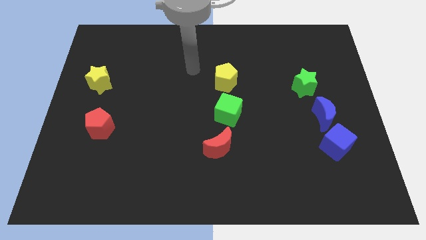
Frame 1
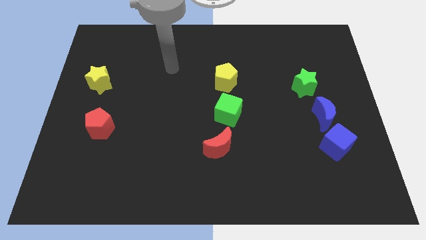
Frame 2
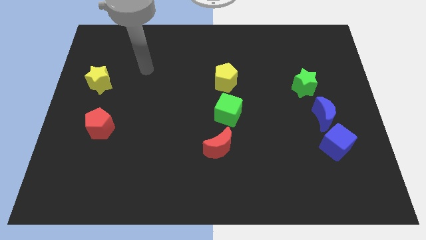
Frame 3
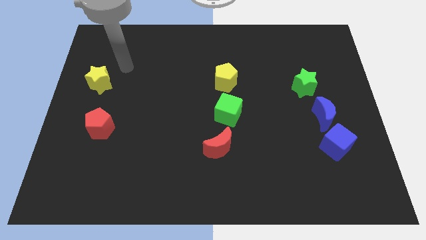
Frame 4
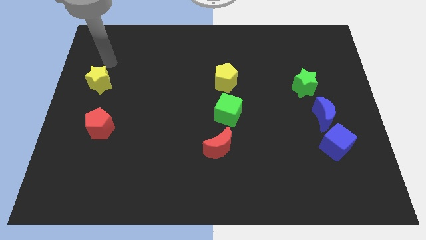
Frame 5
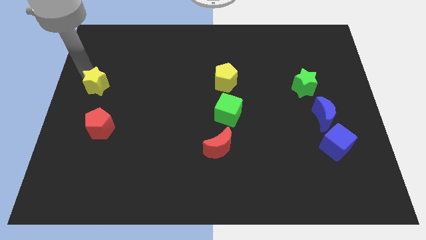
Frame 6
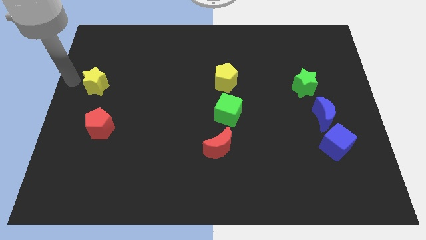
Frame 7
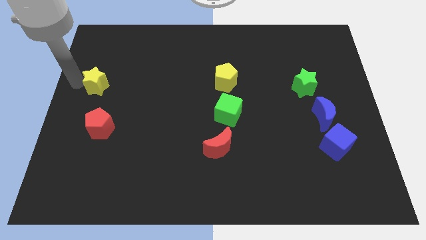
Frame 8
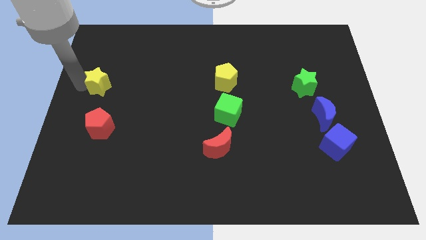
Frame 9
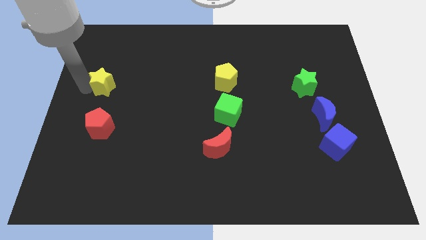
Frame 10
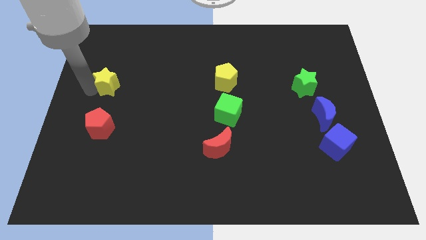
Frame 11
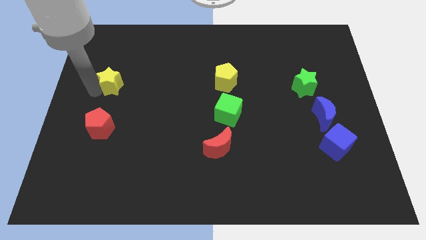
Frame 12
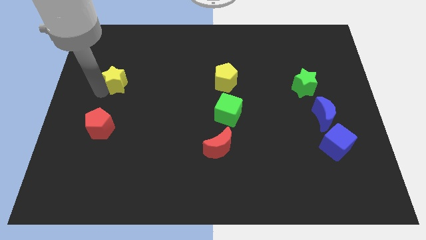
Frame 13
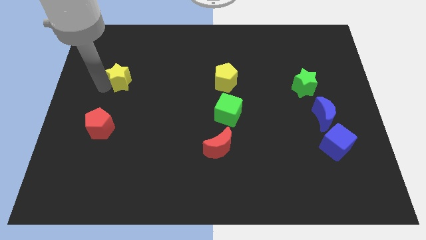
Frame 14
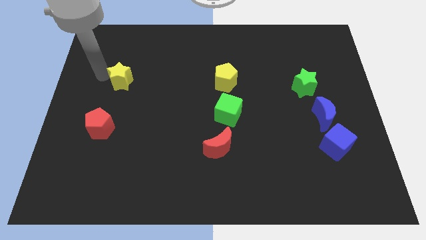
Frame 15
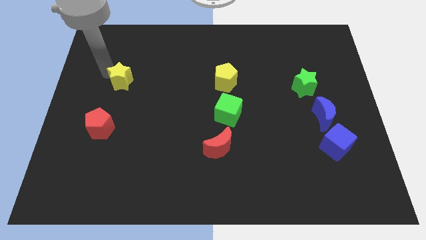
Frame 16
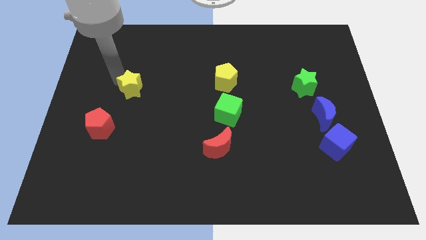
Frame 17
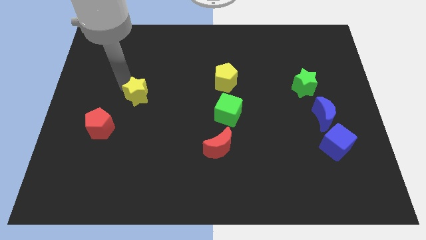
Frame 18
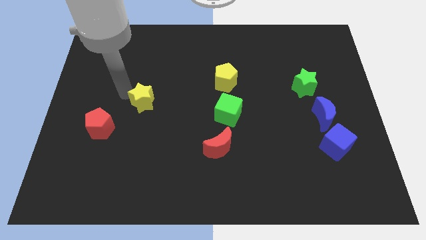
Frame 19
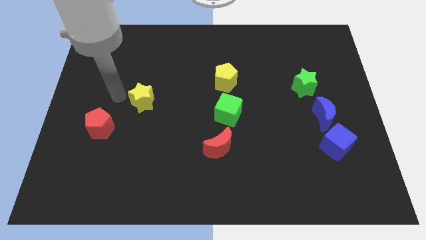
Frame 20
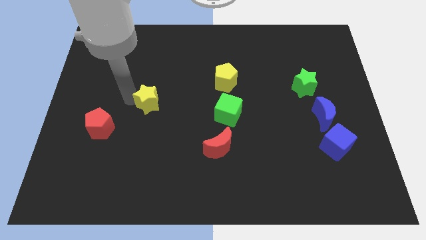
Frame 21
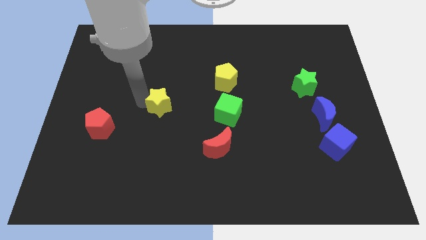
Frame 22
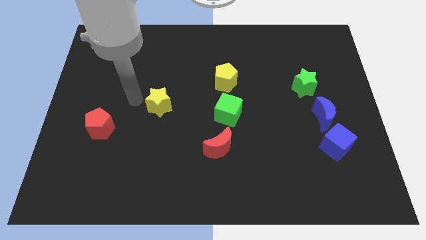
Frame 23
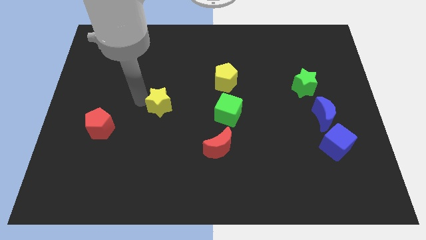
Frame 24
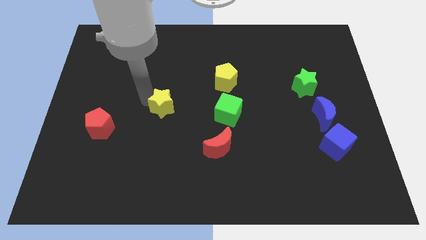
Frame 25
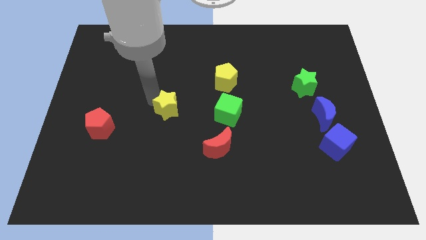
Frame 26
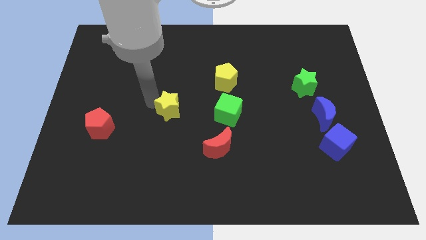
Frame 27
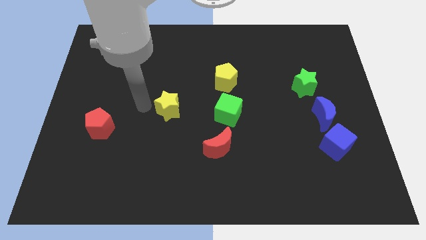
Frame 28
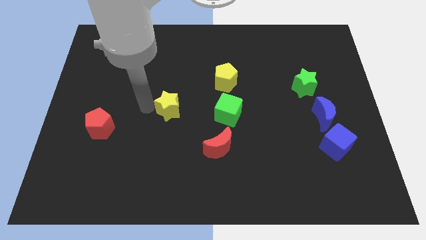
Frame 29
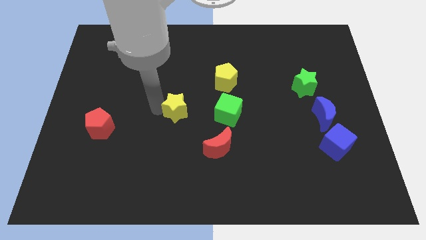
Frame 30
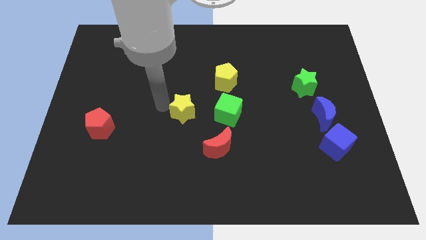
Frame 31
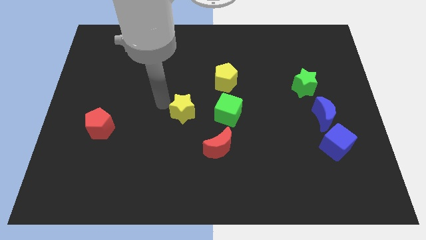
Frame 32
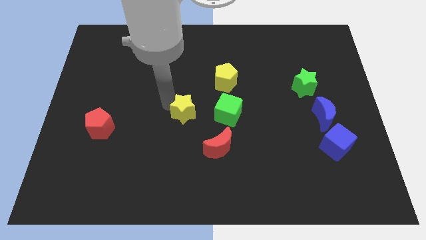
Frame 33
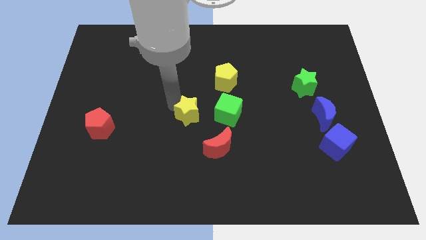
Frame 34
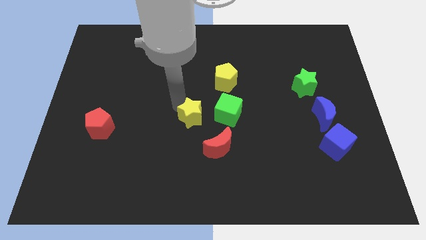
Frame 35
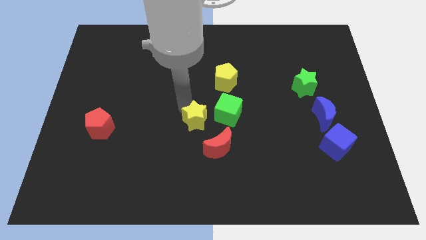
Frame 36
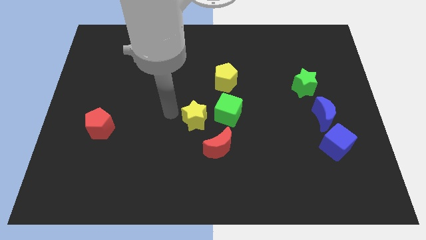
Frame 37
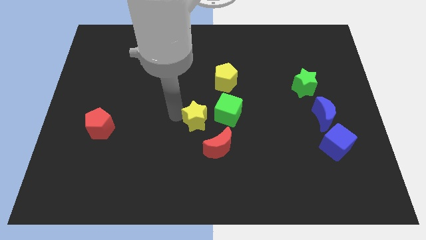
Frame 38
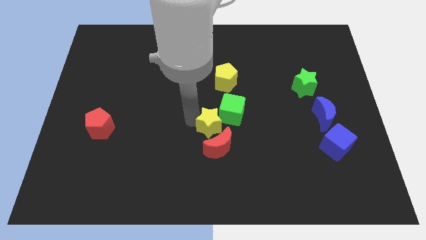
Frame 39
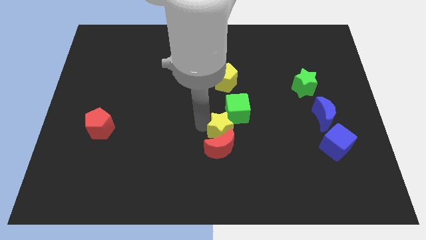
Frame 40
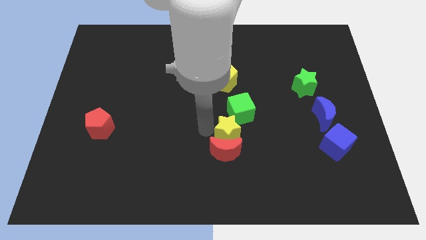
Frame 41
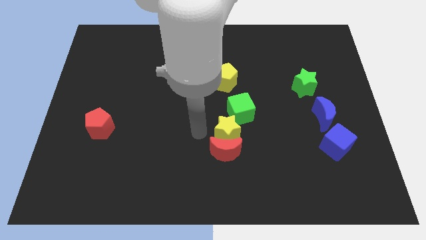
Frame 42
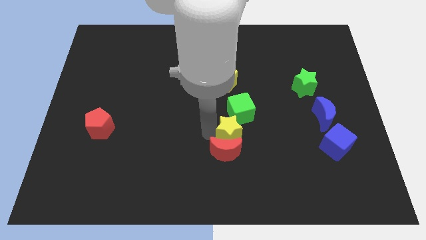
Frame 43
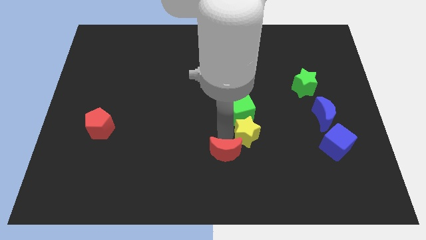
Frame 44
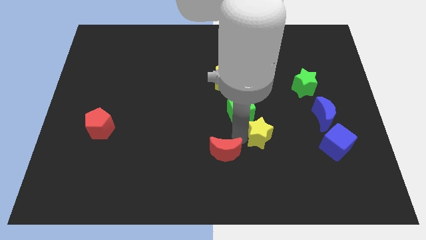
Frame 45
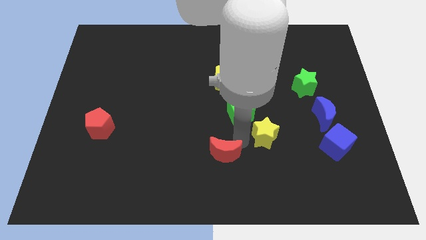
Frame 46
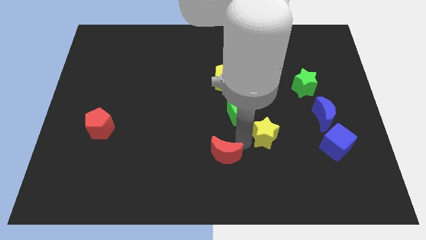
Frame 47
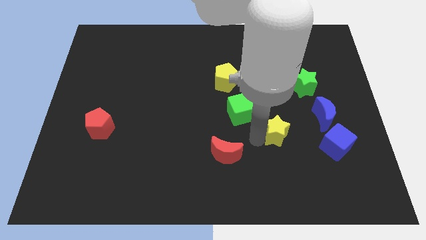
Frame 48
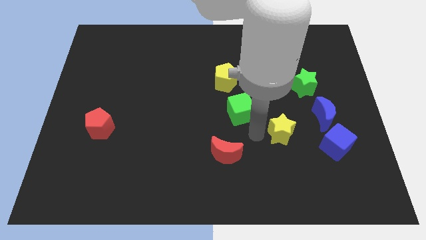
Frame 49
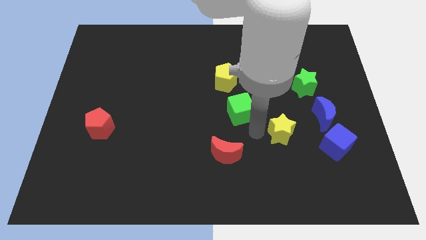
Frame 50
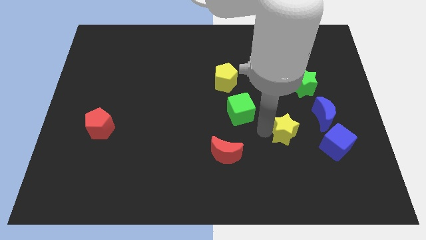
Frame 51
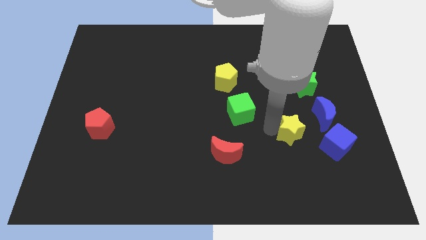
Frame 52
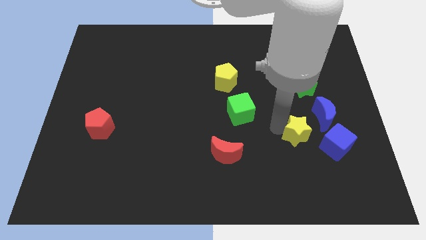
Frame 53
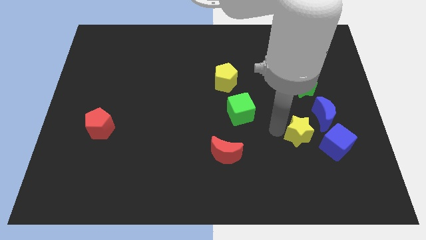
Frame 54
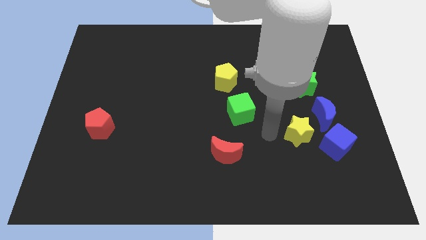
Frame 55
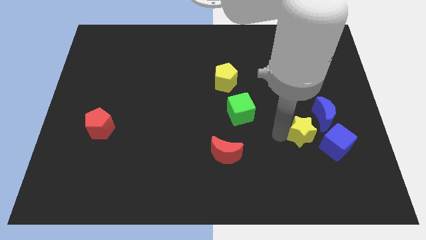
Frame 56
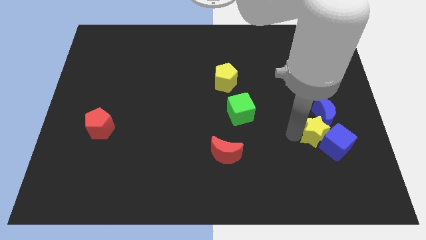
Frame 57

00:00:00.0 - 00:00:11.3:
put the yellow star close to the blue cube
